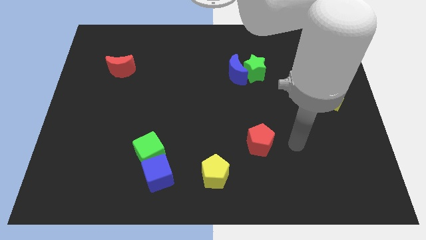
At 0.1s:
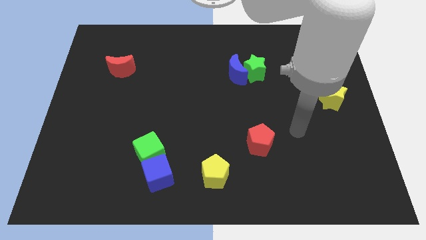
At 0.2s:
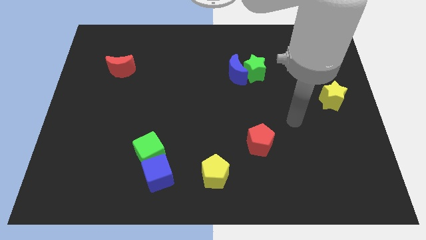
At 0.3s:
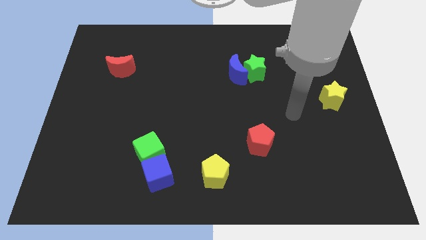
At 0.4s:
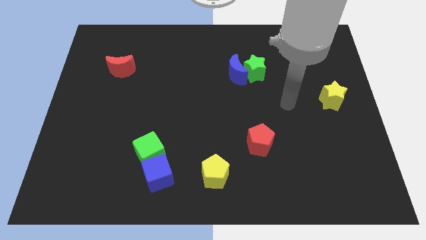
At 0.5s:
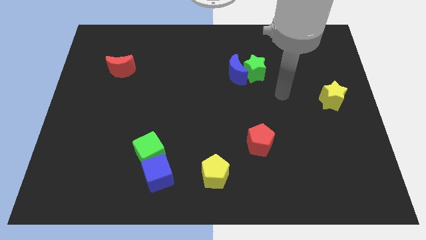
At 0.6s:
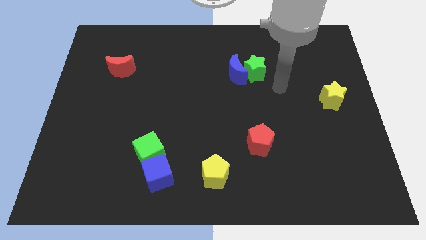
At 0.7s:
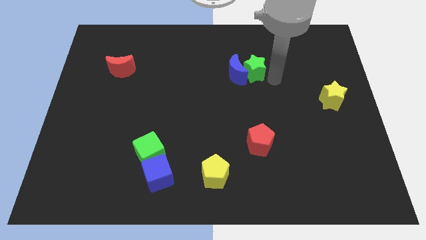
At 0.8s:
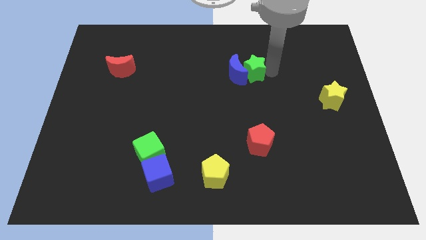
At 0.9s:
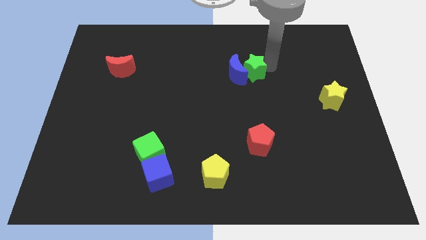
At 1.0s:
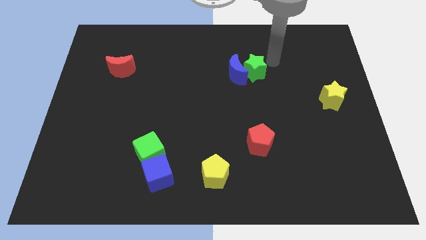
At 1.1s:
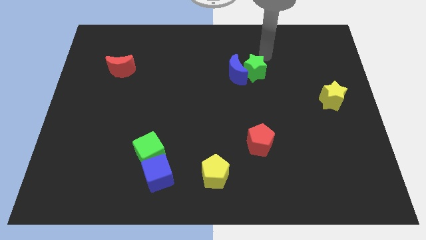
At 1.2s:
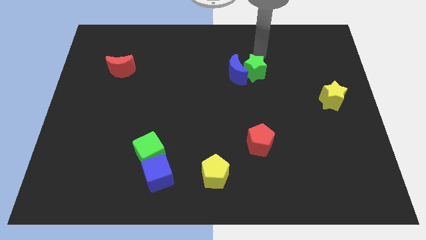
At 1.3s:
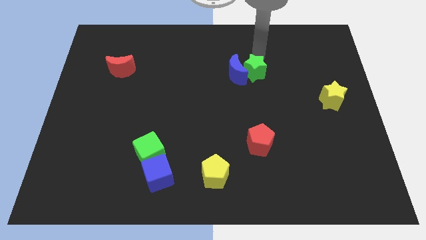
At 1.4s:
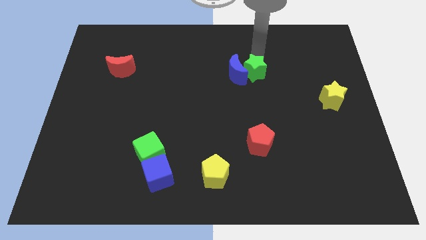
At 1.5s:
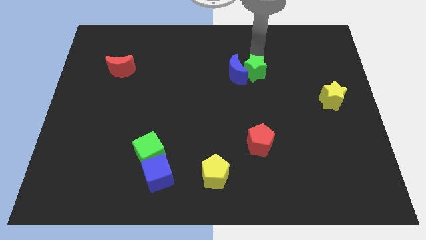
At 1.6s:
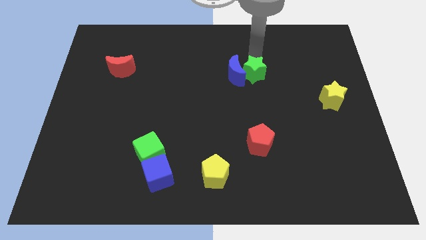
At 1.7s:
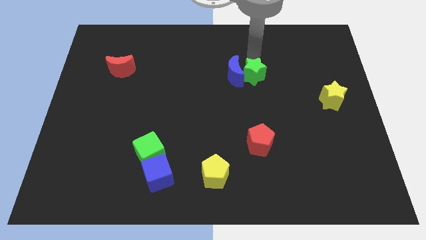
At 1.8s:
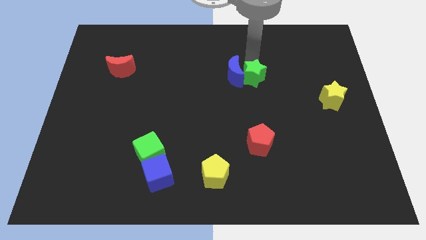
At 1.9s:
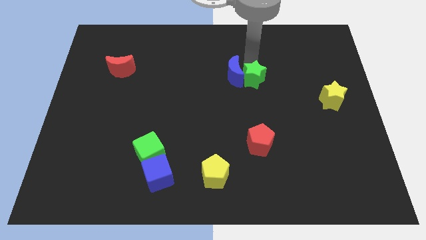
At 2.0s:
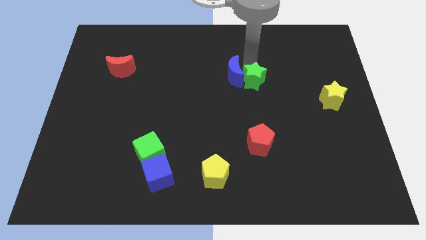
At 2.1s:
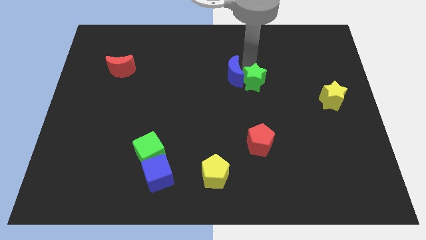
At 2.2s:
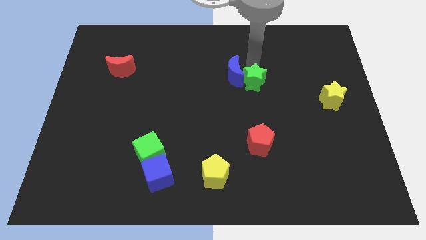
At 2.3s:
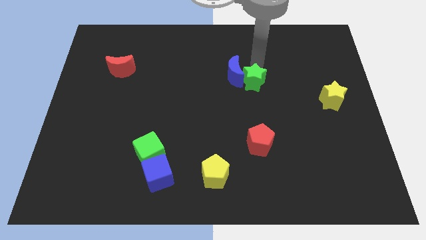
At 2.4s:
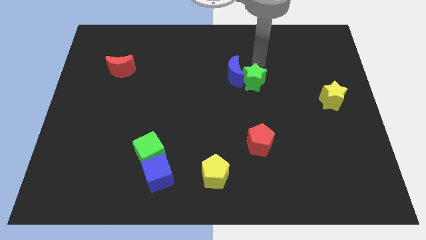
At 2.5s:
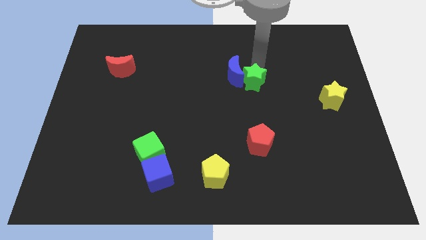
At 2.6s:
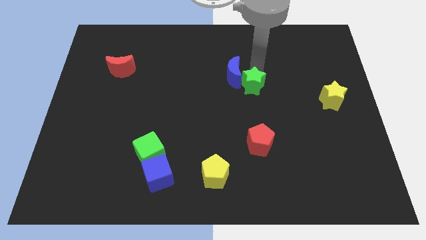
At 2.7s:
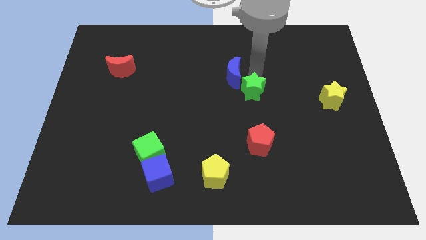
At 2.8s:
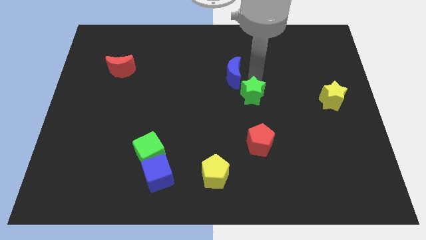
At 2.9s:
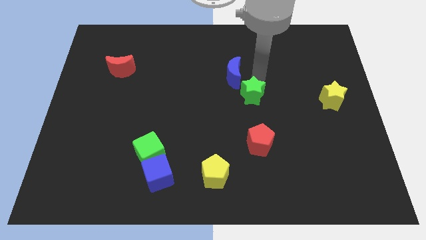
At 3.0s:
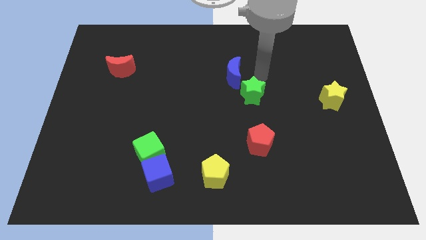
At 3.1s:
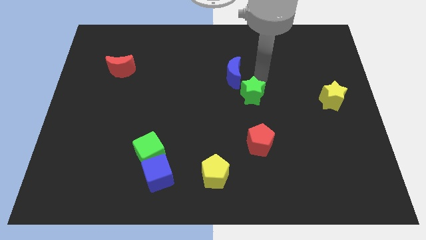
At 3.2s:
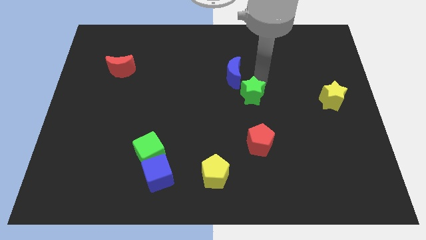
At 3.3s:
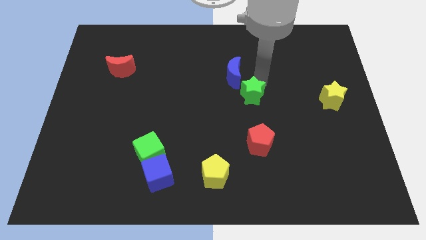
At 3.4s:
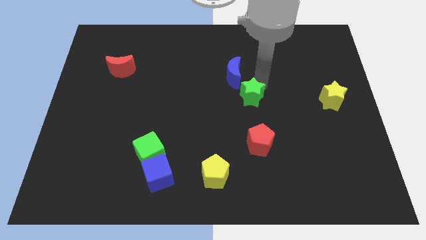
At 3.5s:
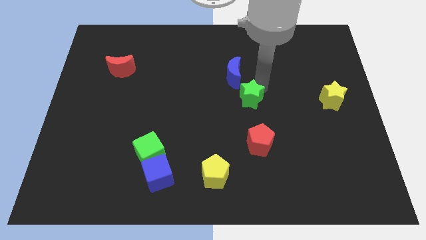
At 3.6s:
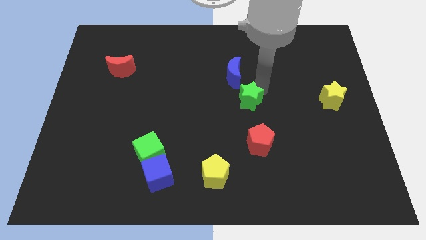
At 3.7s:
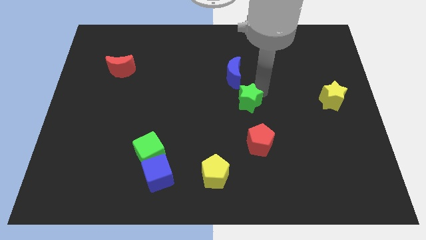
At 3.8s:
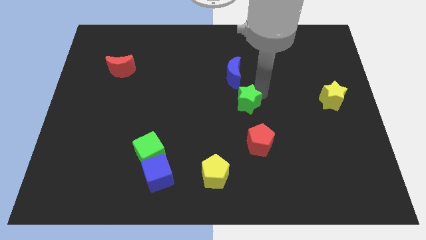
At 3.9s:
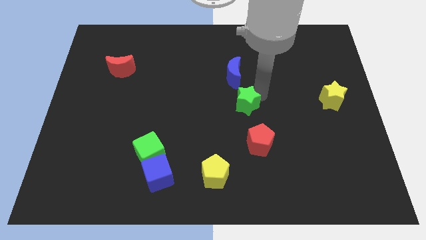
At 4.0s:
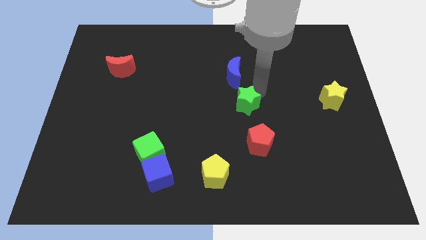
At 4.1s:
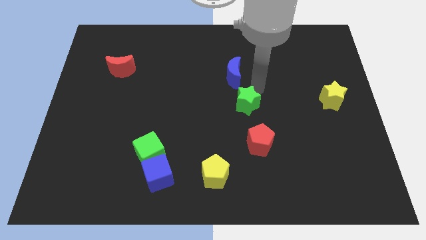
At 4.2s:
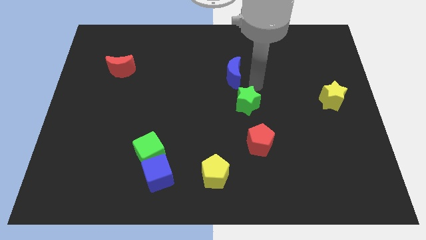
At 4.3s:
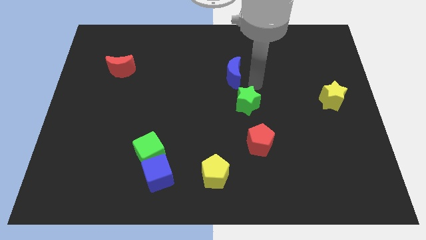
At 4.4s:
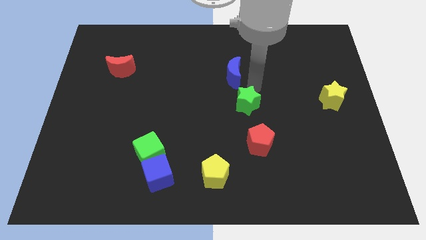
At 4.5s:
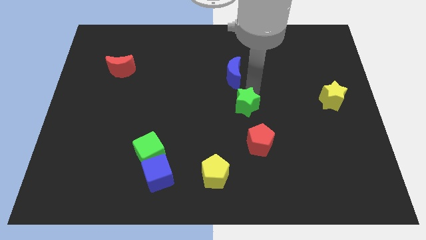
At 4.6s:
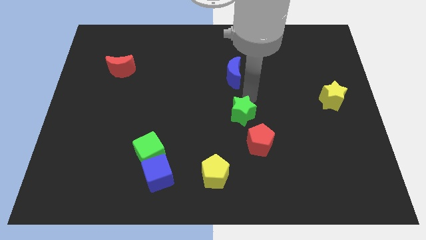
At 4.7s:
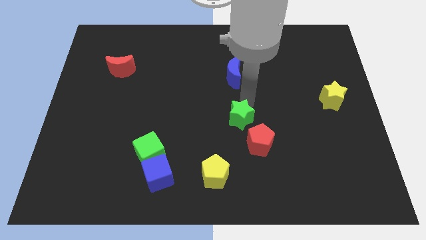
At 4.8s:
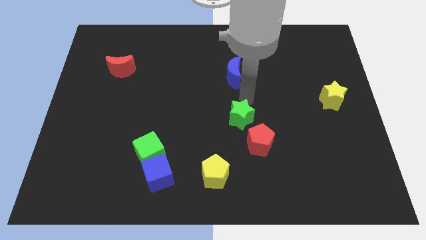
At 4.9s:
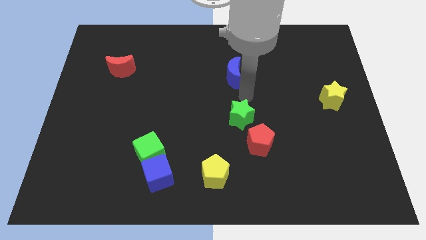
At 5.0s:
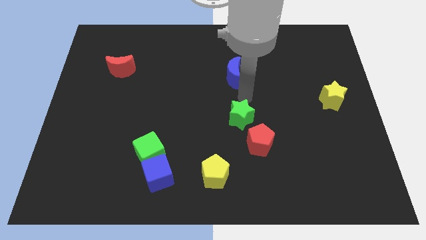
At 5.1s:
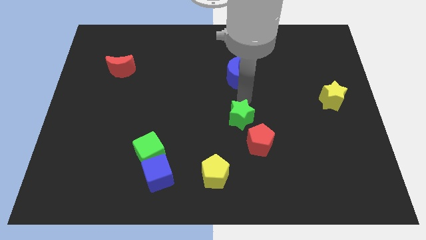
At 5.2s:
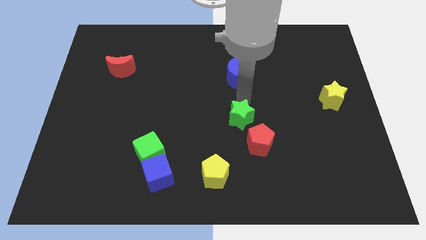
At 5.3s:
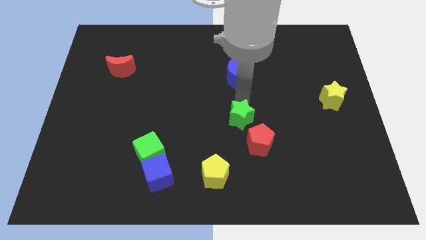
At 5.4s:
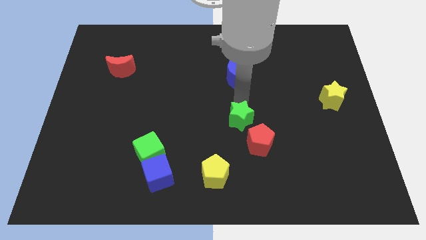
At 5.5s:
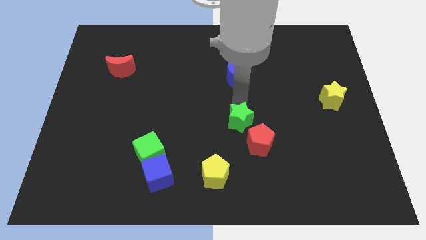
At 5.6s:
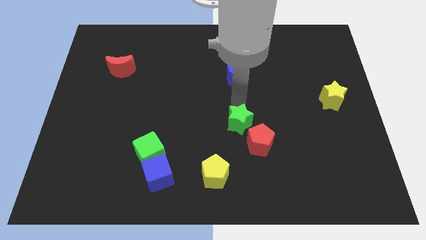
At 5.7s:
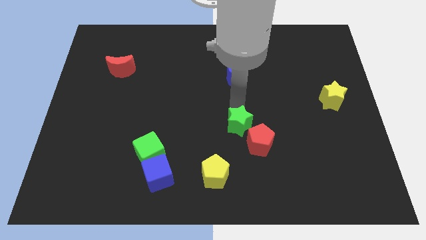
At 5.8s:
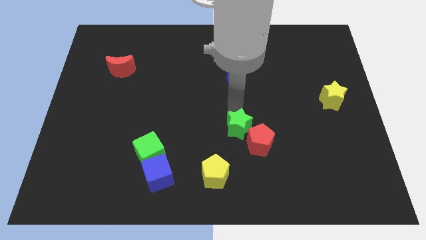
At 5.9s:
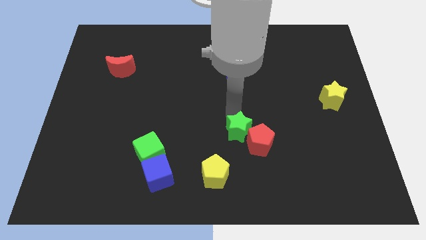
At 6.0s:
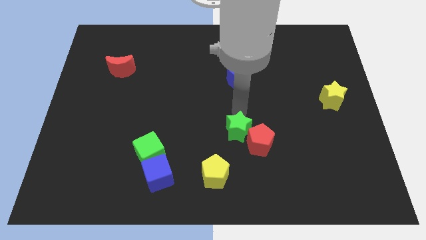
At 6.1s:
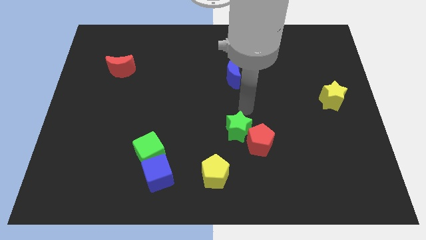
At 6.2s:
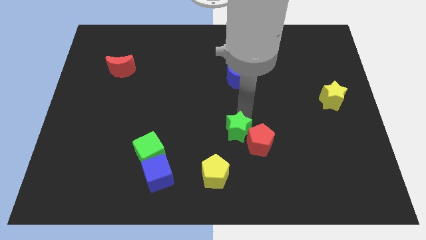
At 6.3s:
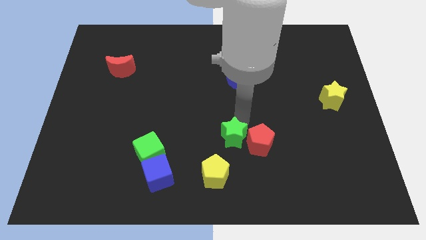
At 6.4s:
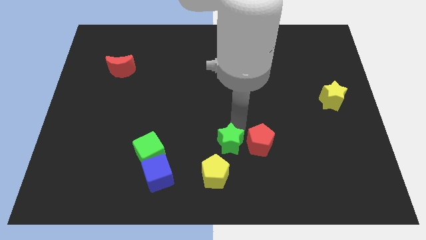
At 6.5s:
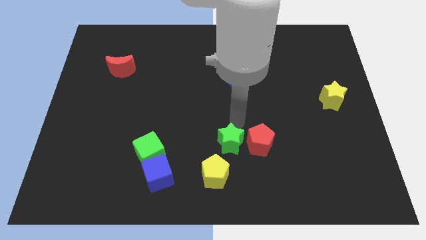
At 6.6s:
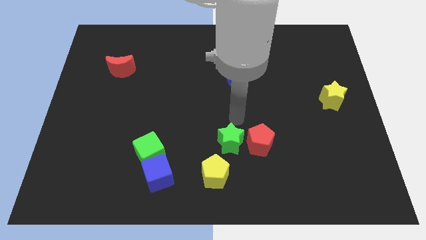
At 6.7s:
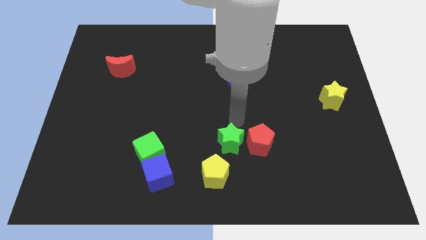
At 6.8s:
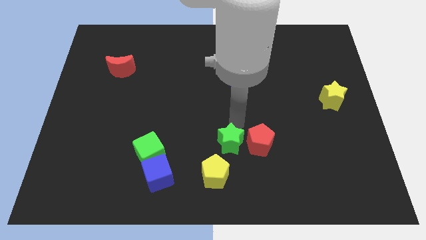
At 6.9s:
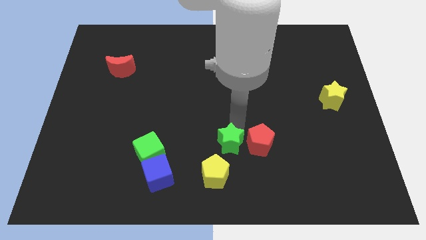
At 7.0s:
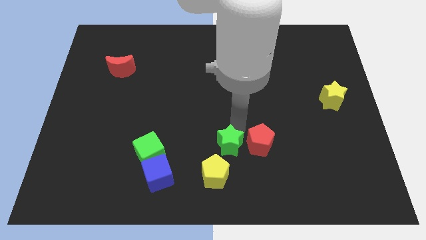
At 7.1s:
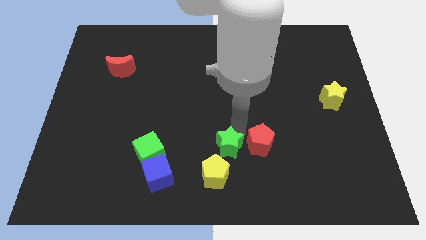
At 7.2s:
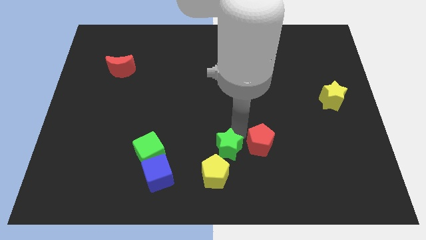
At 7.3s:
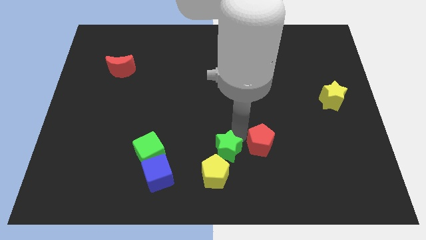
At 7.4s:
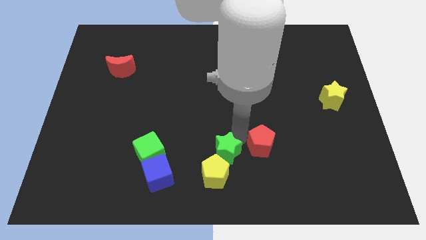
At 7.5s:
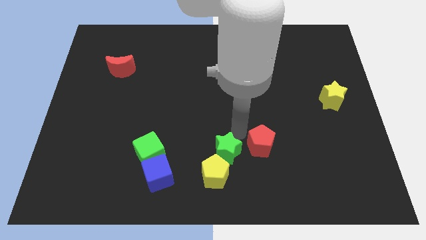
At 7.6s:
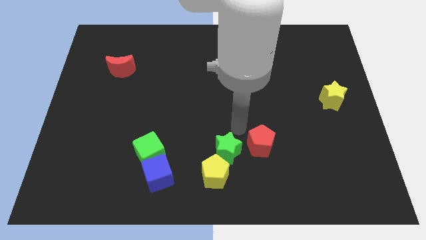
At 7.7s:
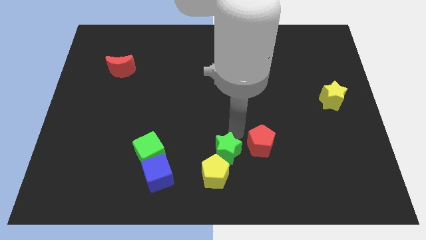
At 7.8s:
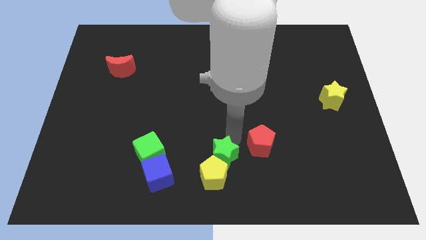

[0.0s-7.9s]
slide the green star to the yellow pentagon
